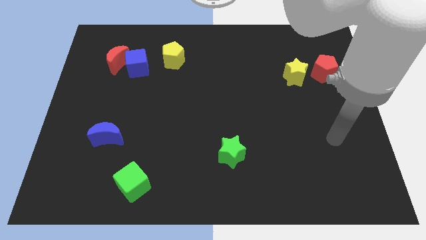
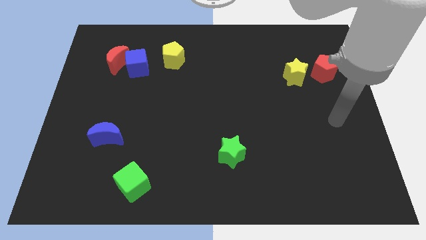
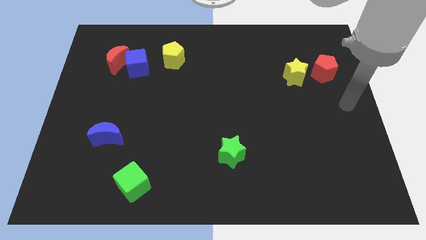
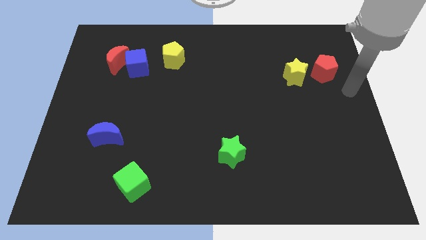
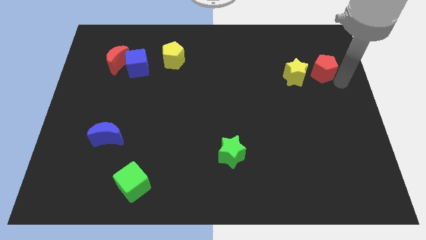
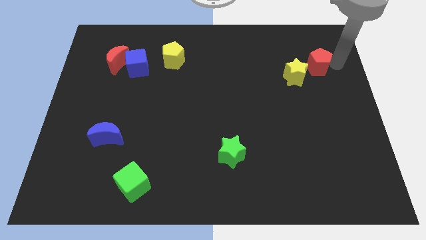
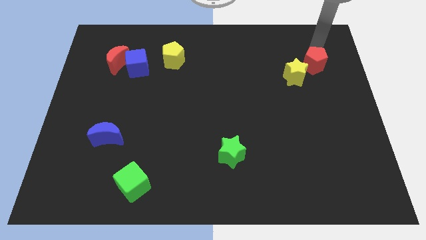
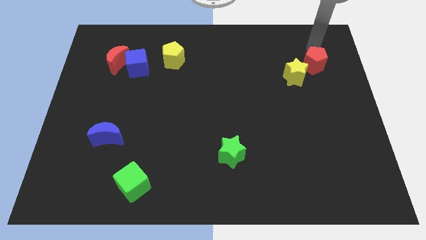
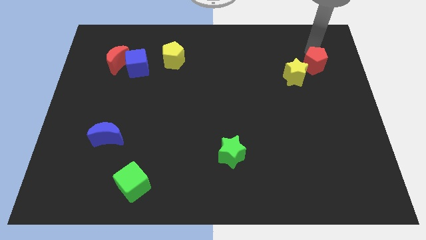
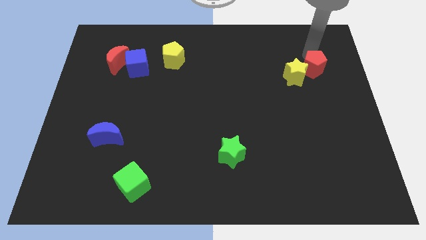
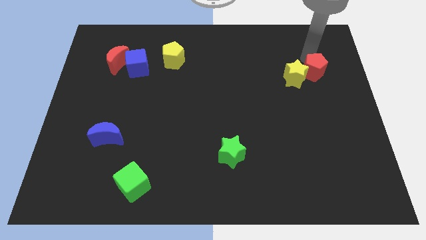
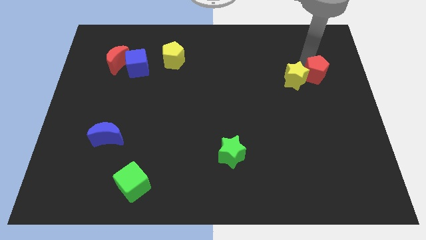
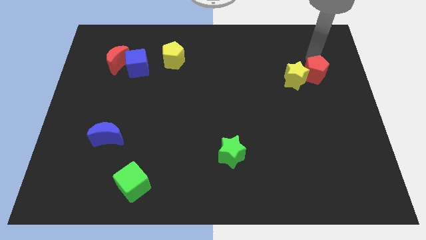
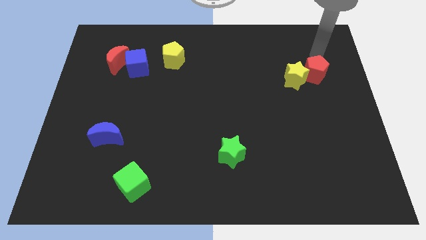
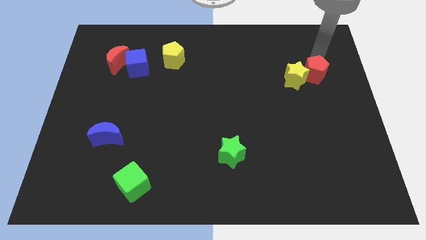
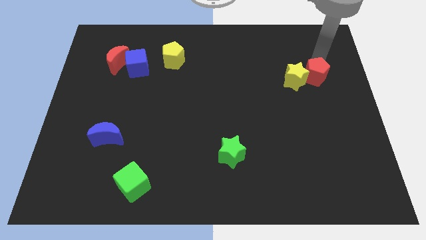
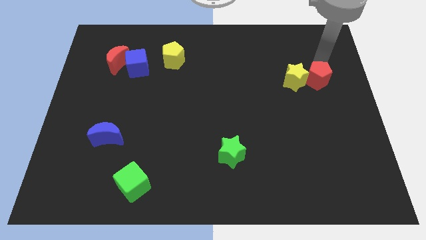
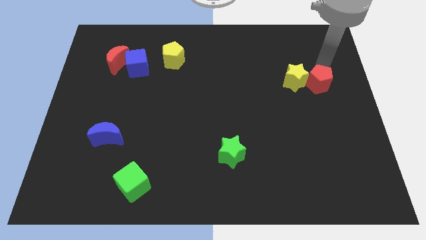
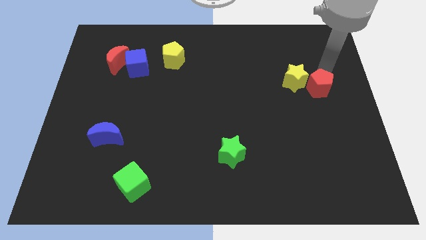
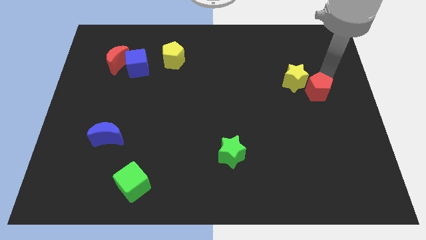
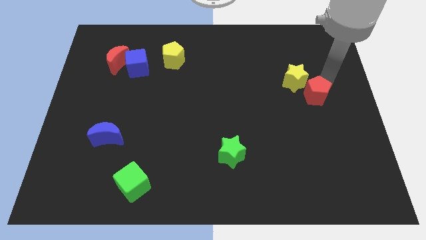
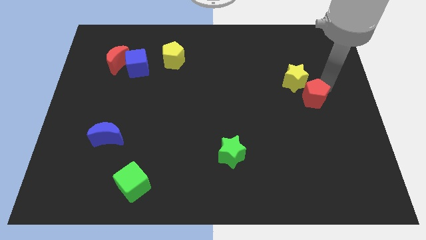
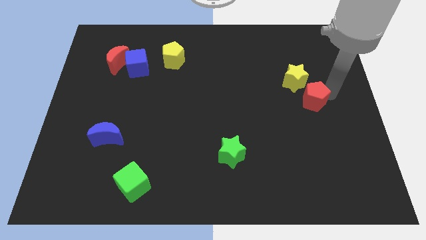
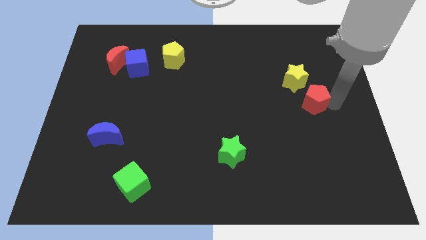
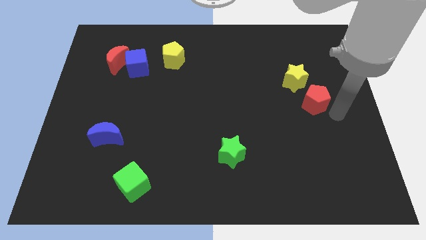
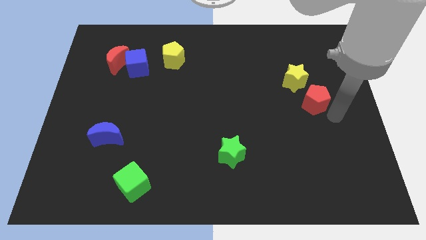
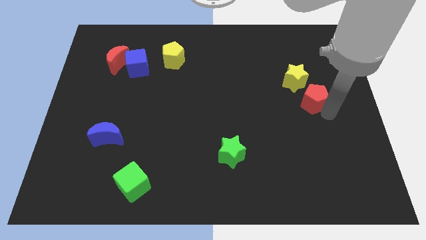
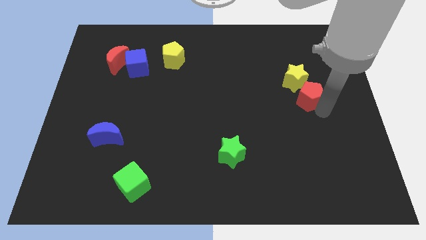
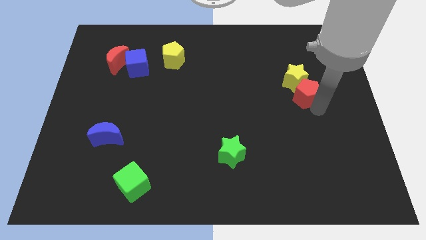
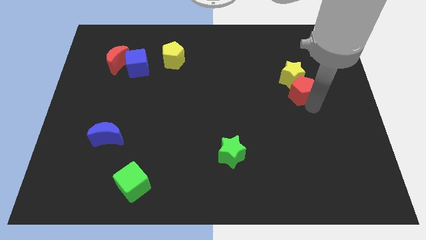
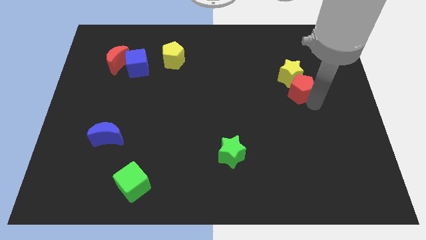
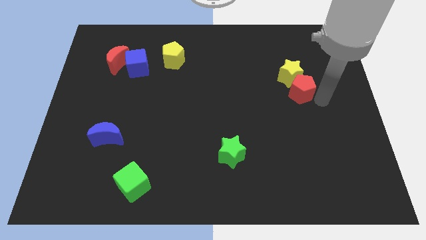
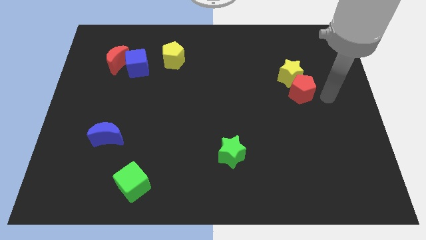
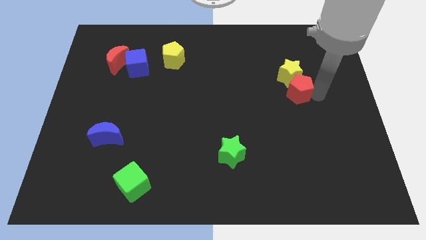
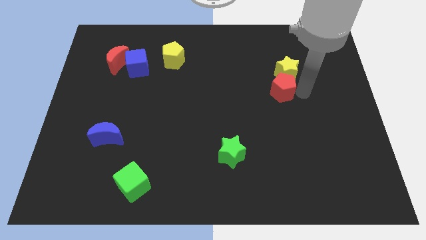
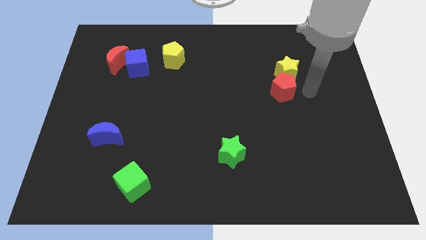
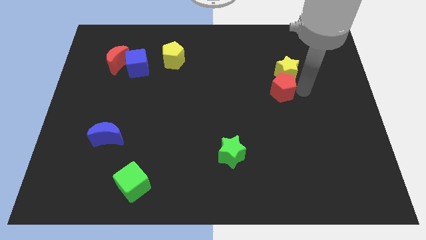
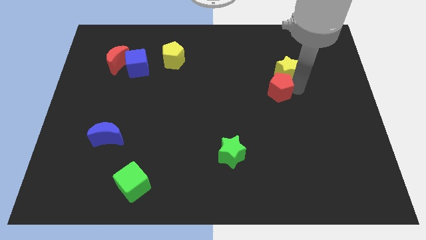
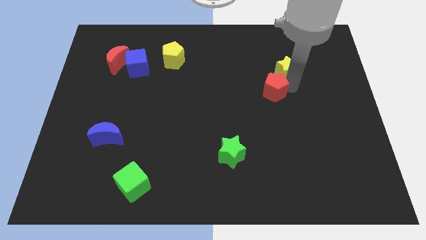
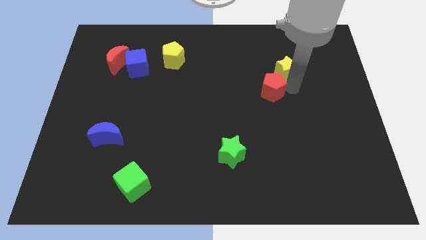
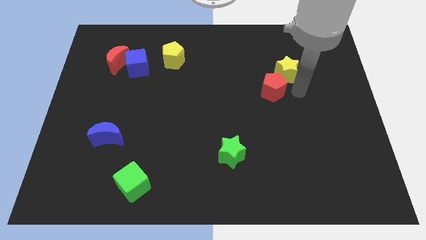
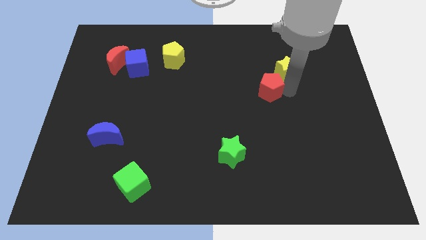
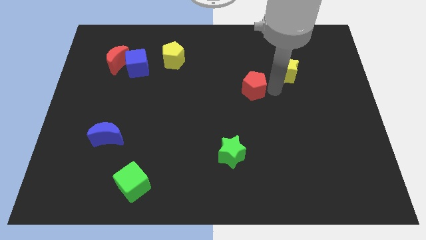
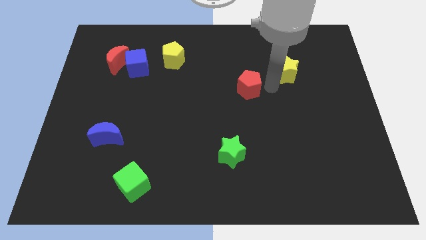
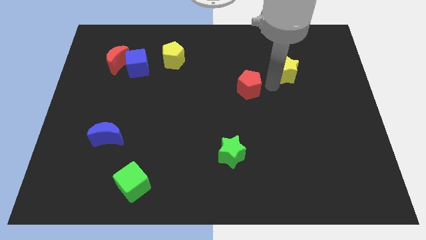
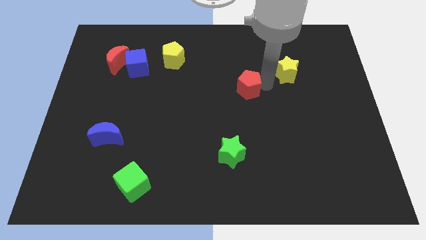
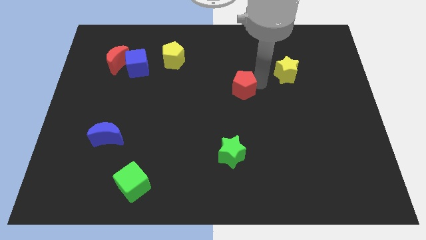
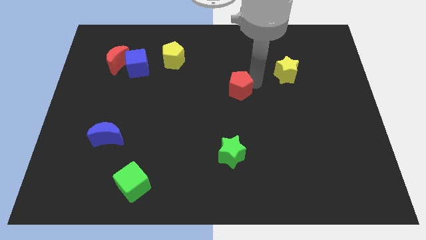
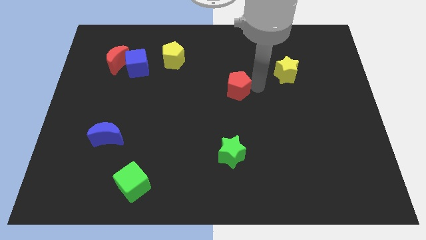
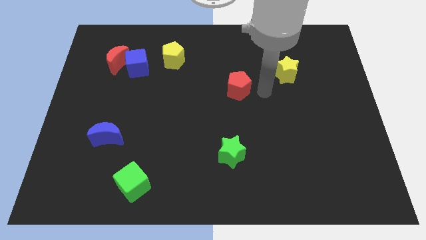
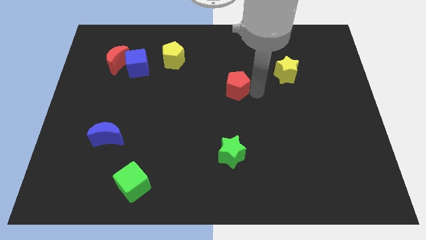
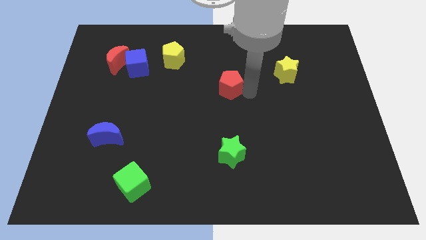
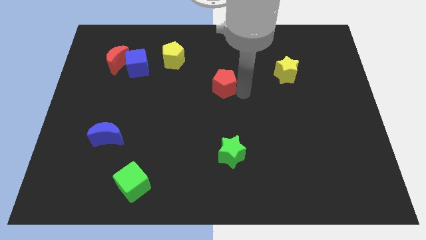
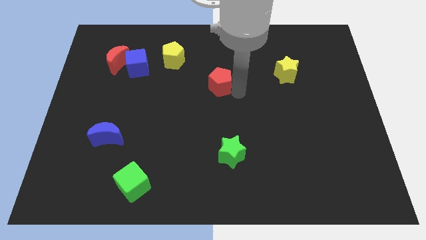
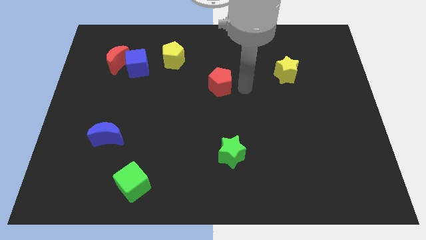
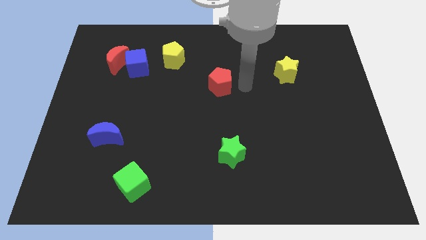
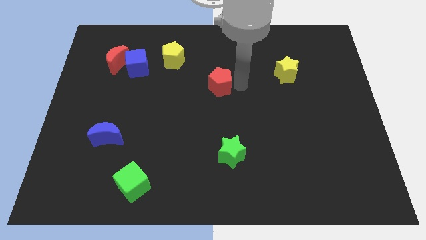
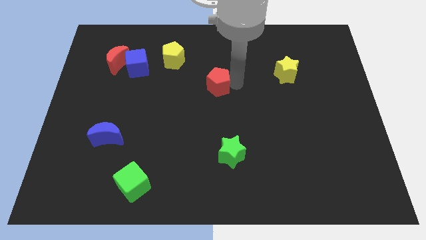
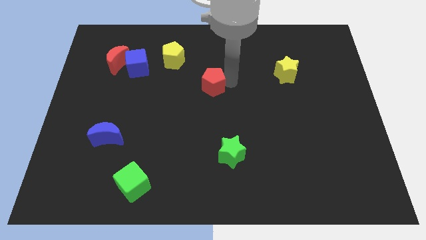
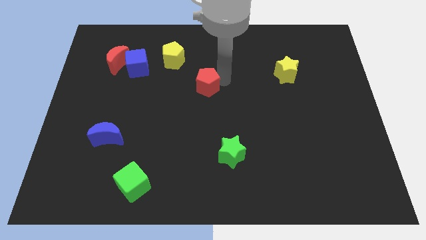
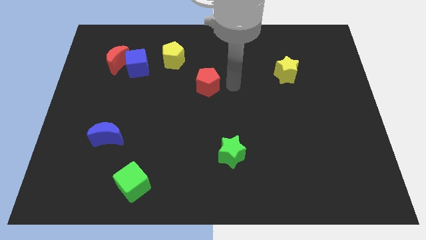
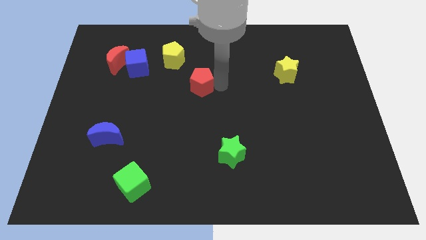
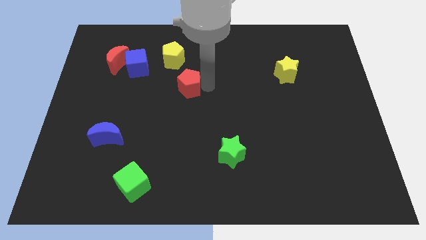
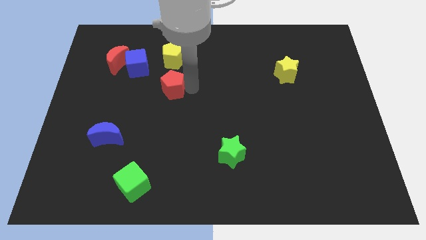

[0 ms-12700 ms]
put the red pentagon to the bottom right side of the blue cube

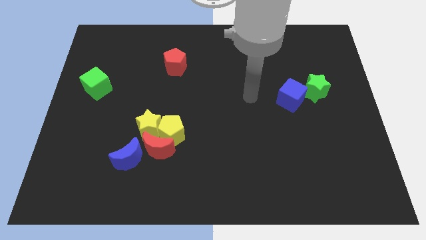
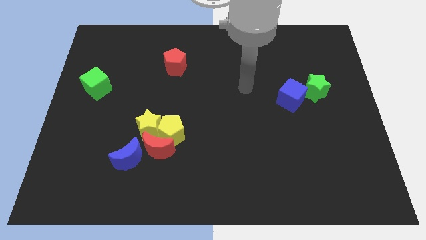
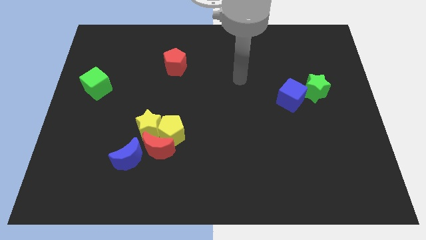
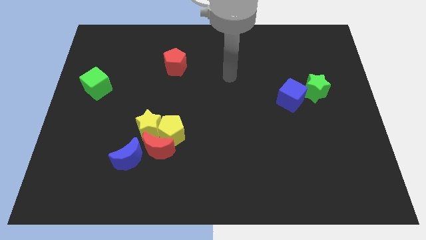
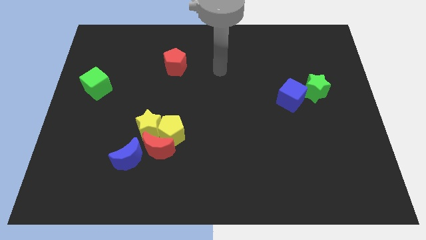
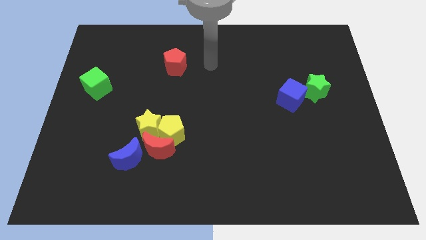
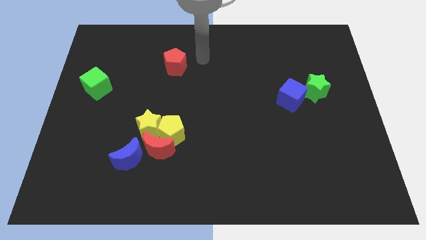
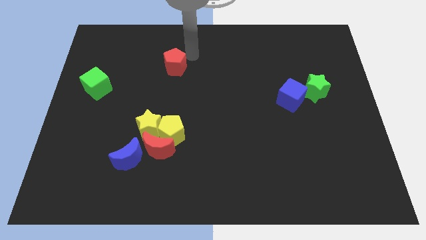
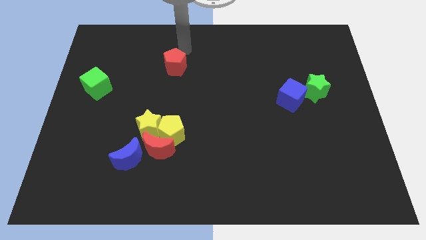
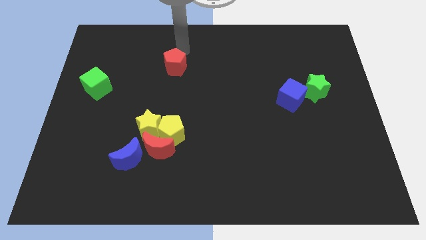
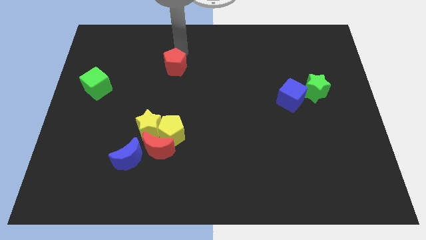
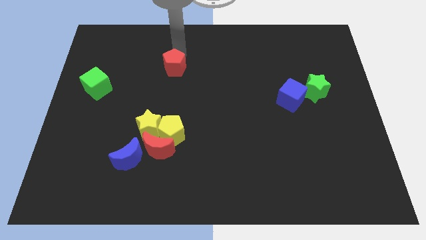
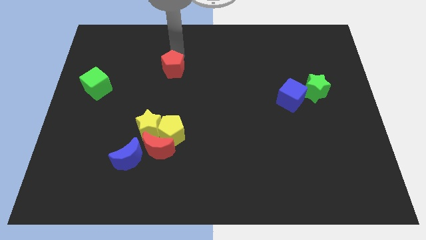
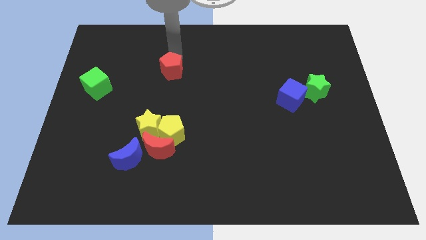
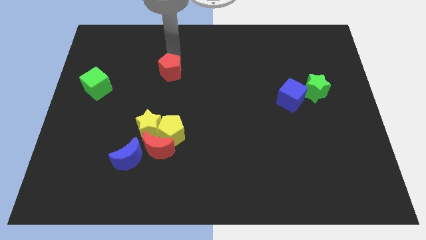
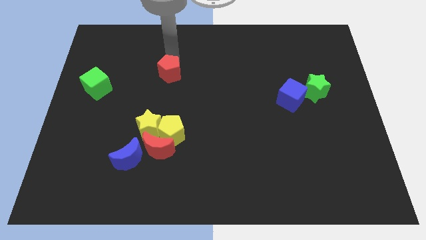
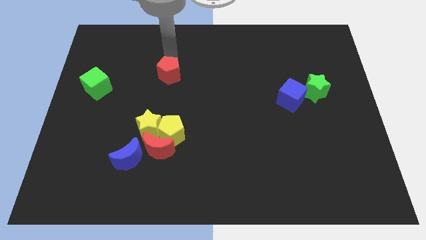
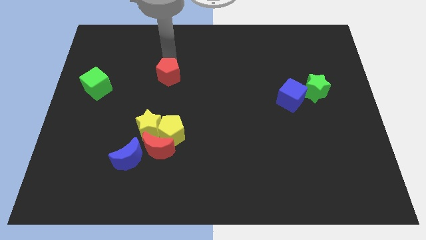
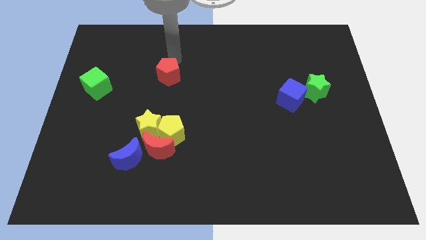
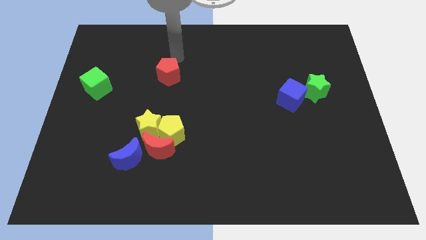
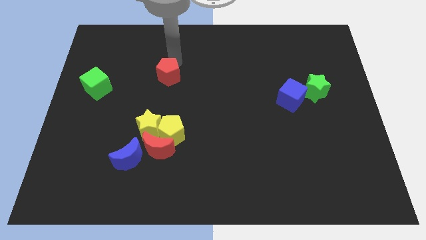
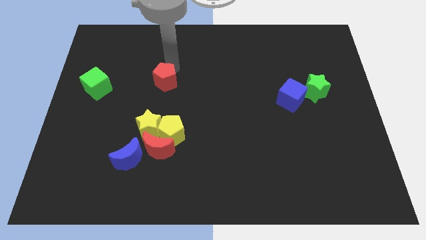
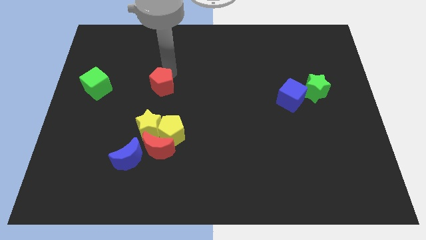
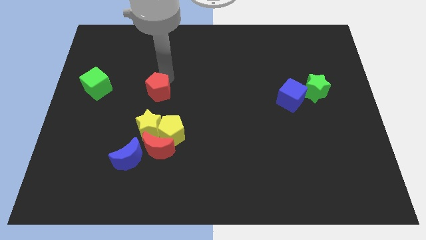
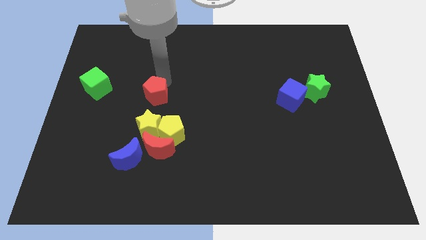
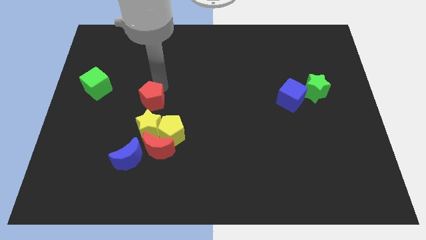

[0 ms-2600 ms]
move the red pentagon to the top left of the yellow pentagon
